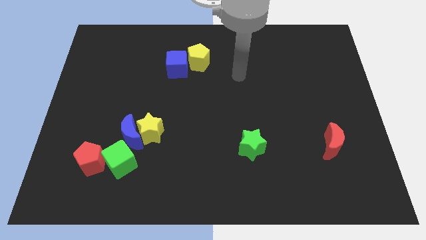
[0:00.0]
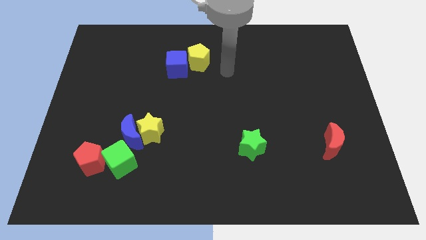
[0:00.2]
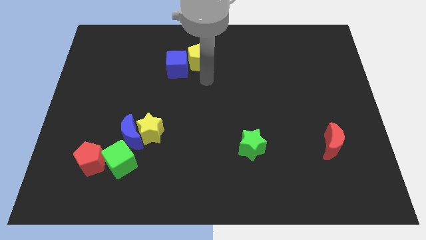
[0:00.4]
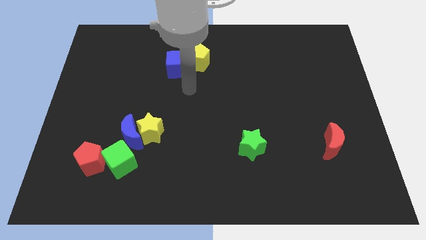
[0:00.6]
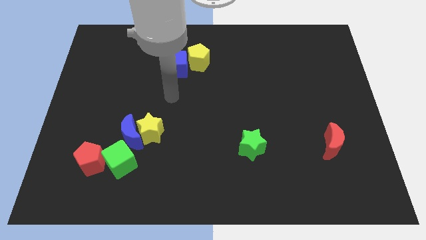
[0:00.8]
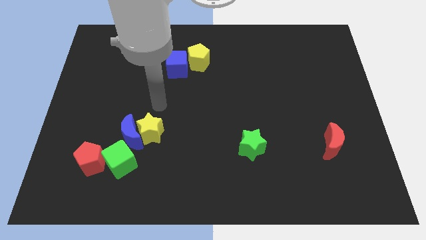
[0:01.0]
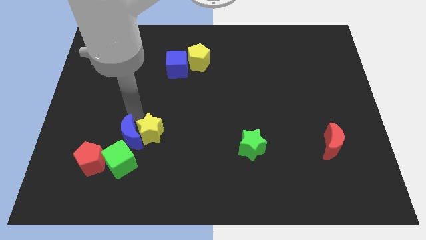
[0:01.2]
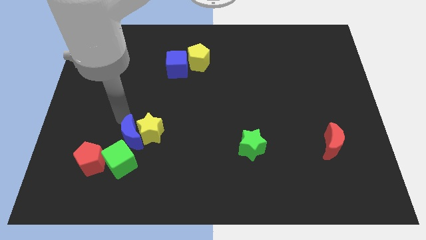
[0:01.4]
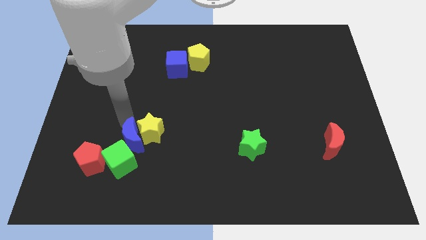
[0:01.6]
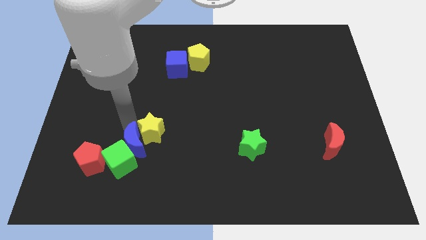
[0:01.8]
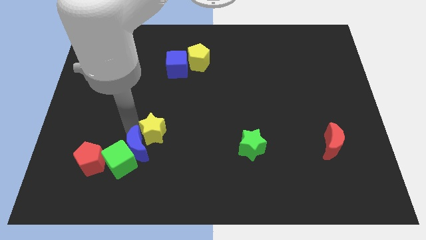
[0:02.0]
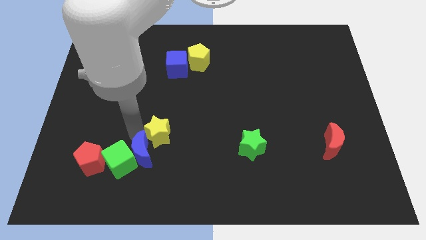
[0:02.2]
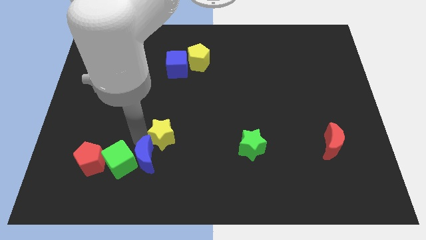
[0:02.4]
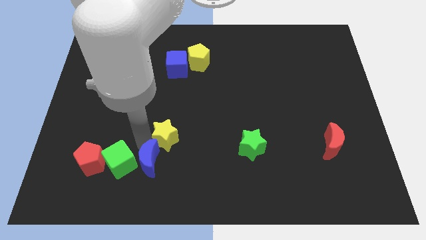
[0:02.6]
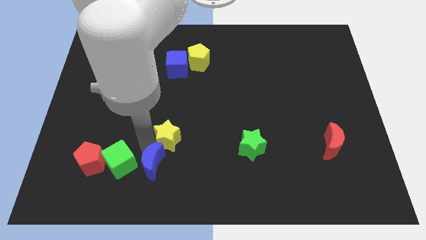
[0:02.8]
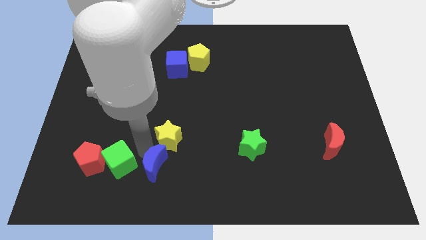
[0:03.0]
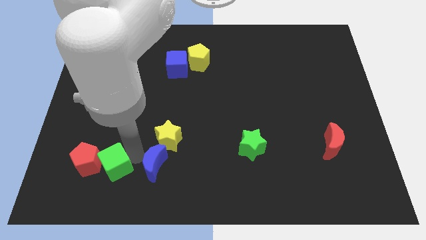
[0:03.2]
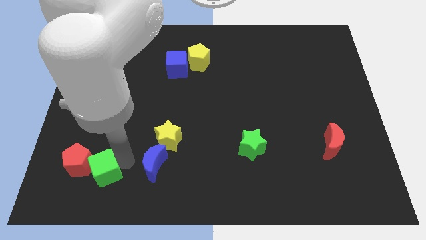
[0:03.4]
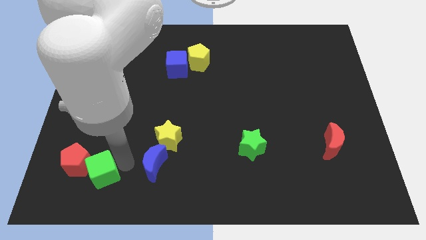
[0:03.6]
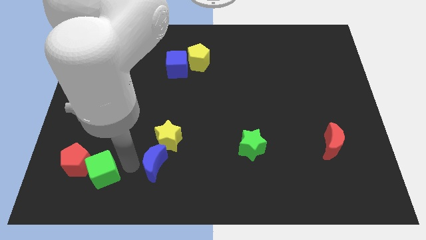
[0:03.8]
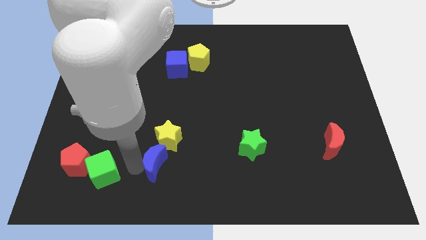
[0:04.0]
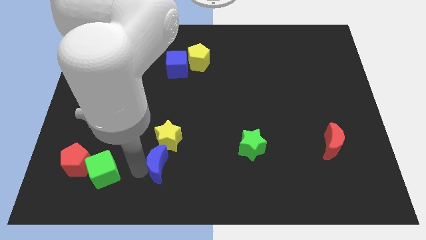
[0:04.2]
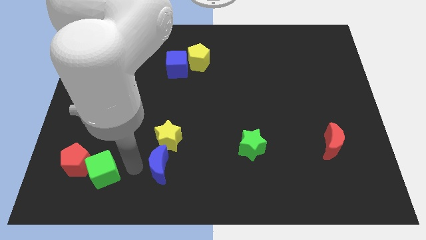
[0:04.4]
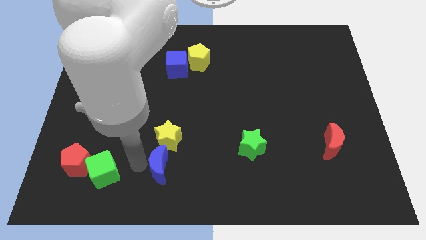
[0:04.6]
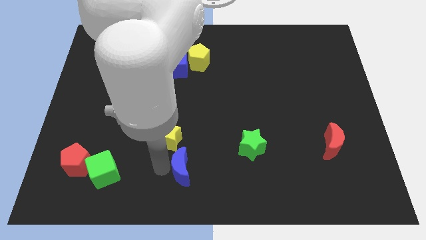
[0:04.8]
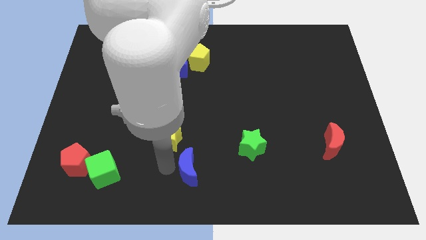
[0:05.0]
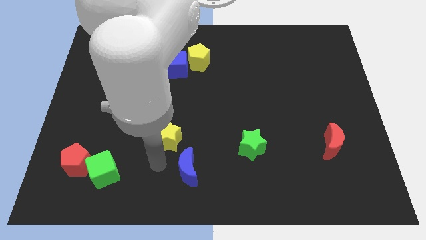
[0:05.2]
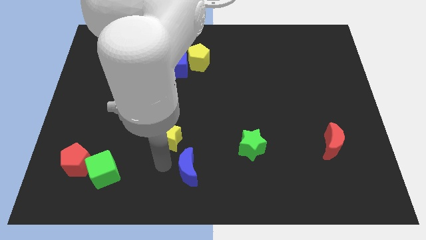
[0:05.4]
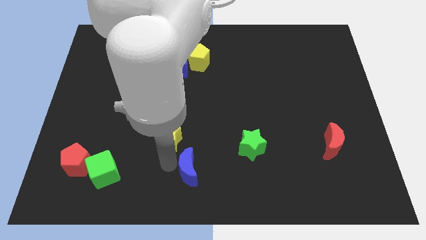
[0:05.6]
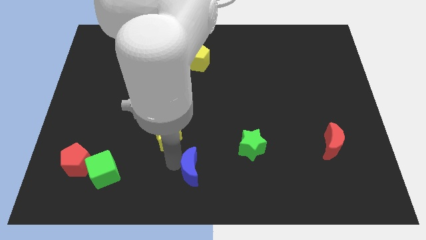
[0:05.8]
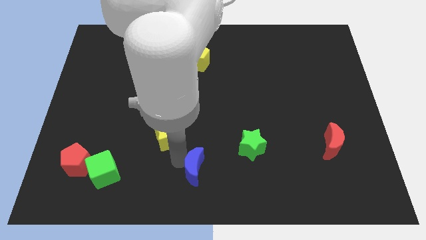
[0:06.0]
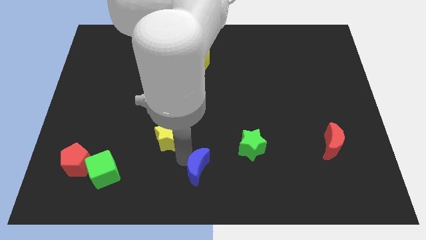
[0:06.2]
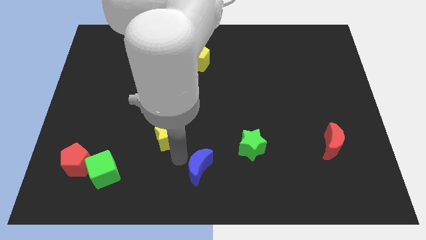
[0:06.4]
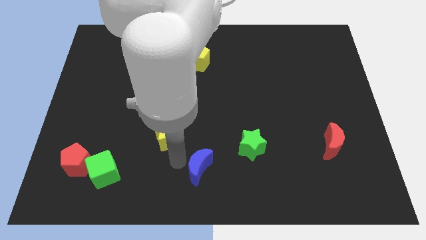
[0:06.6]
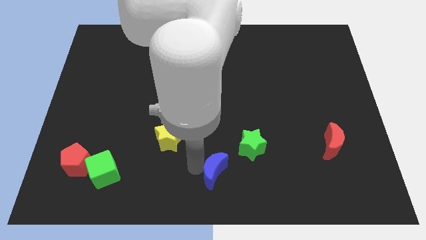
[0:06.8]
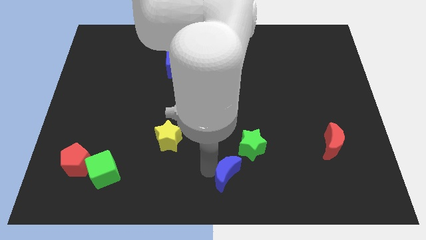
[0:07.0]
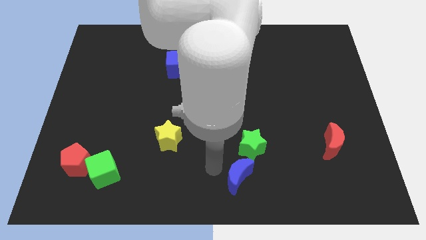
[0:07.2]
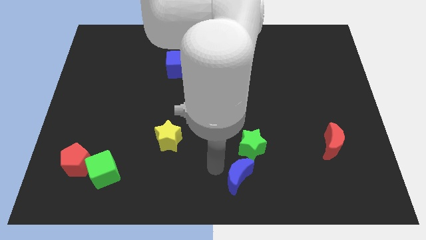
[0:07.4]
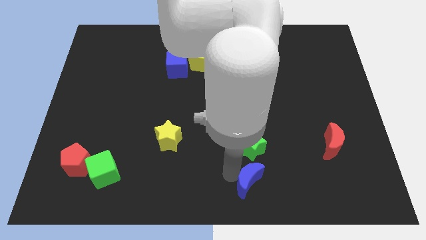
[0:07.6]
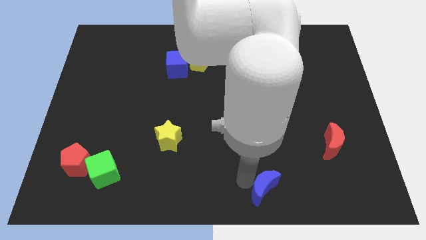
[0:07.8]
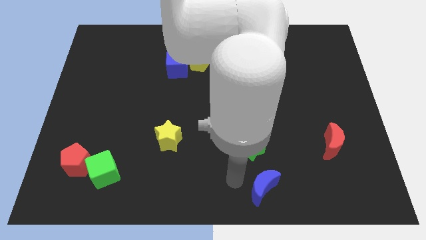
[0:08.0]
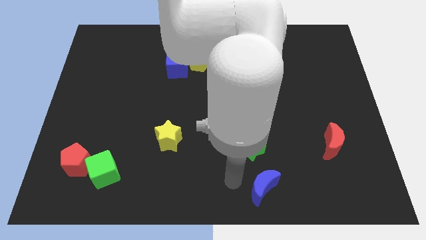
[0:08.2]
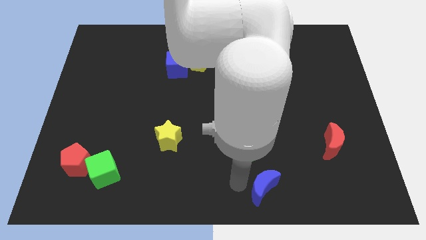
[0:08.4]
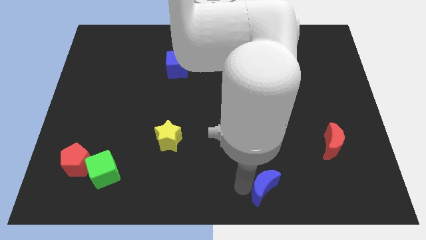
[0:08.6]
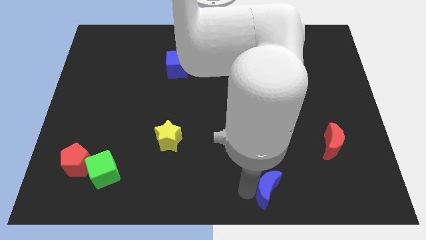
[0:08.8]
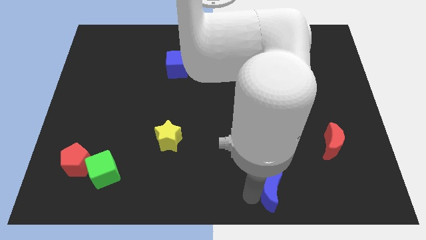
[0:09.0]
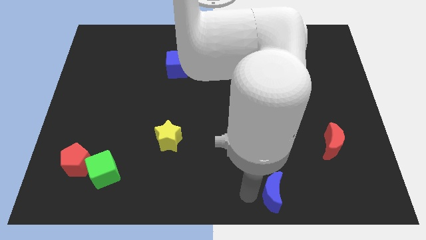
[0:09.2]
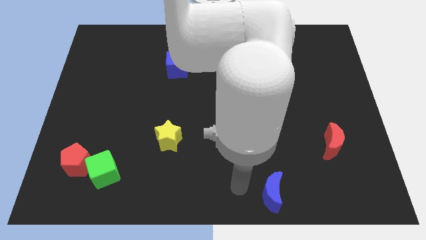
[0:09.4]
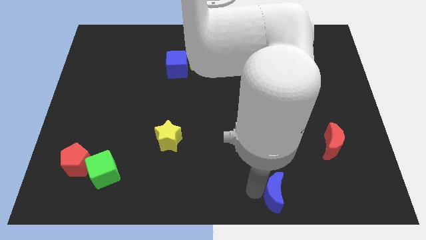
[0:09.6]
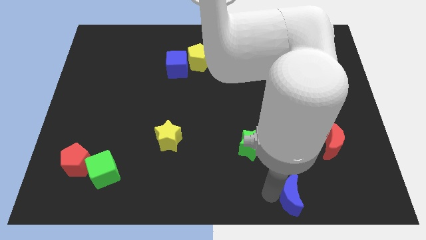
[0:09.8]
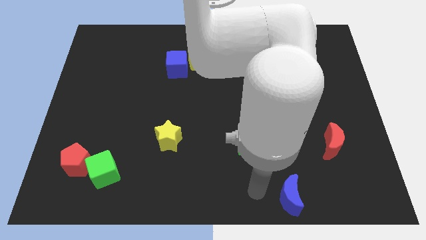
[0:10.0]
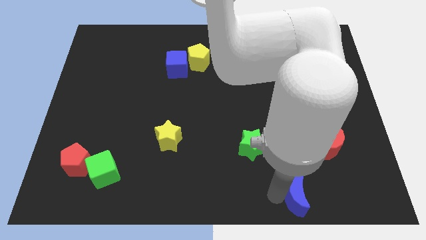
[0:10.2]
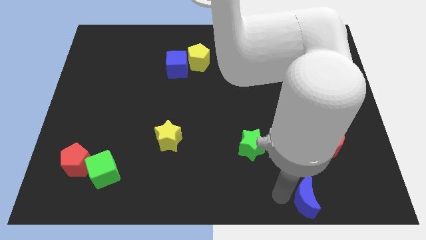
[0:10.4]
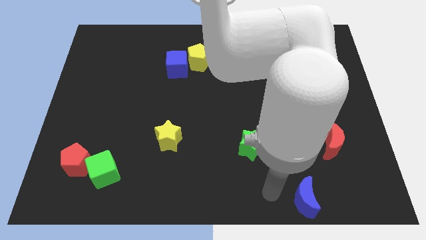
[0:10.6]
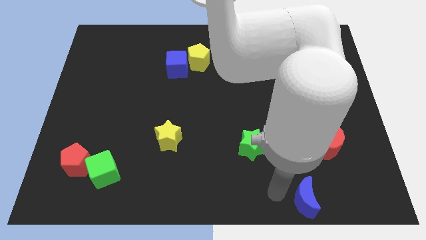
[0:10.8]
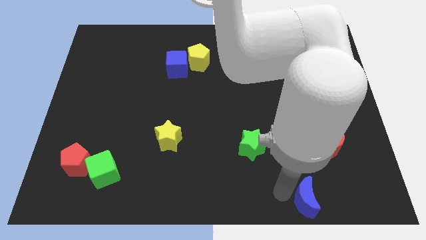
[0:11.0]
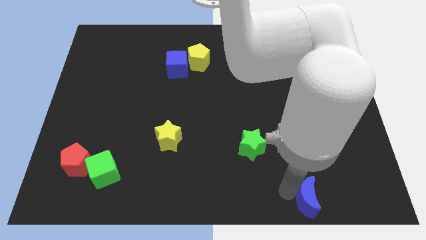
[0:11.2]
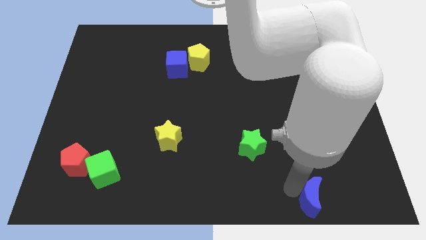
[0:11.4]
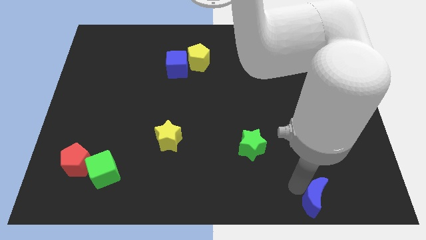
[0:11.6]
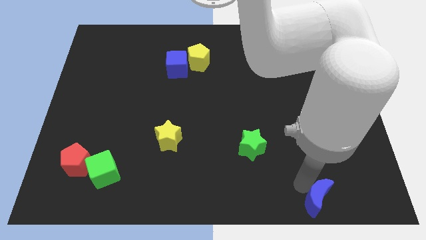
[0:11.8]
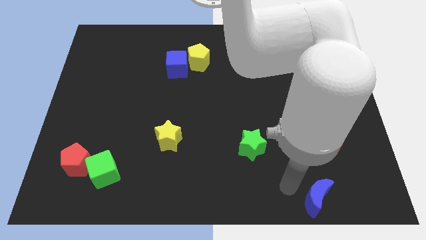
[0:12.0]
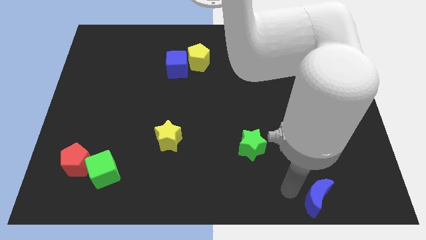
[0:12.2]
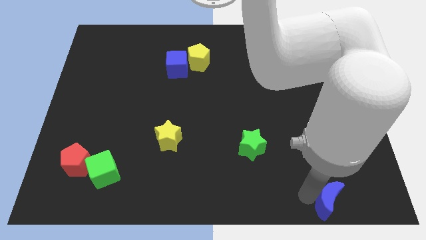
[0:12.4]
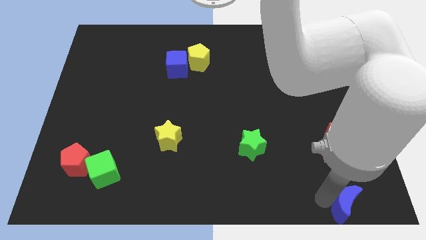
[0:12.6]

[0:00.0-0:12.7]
move the blue moon to the bottom right
